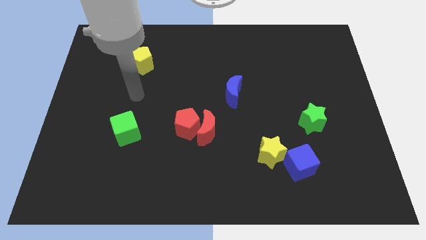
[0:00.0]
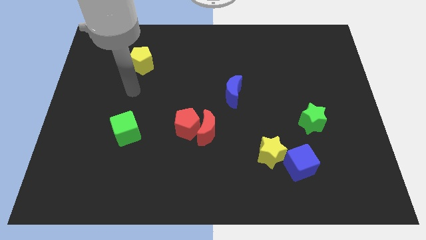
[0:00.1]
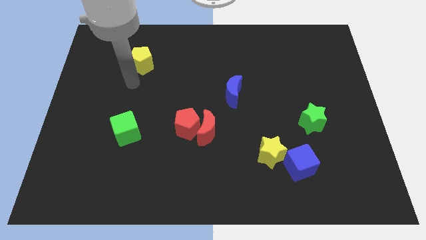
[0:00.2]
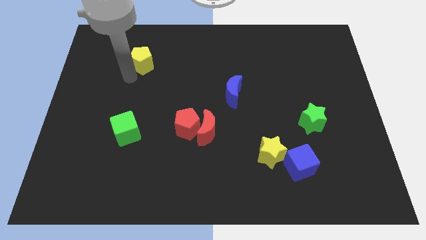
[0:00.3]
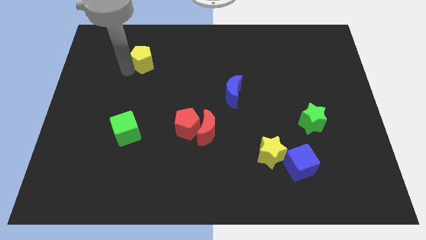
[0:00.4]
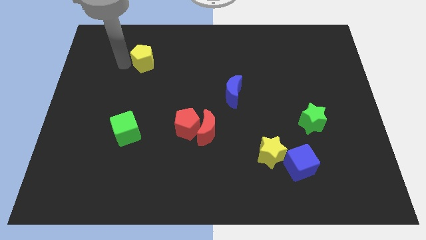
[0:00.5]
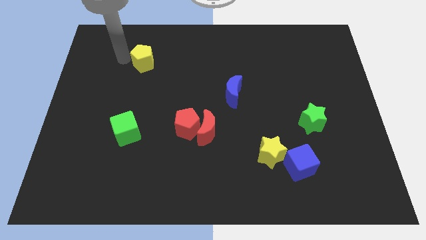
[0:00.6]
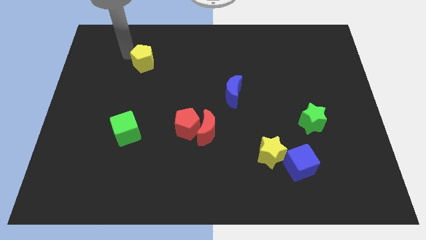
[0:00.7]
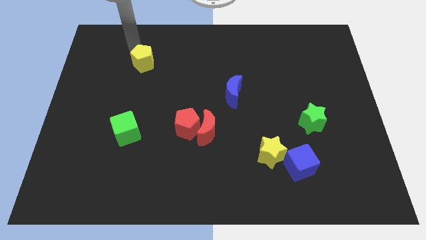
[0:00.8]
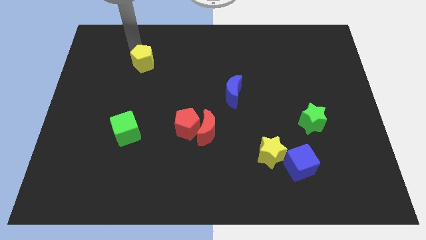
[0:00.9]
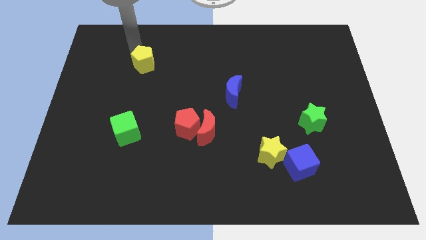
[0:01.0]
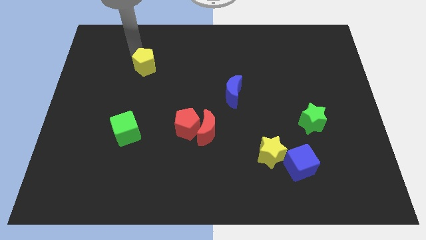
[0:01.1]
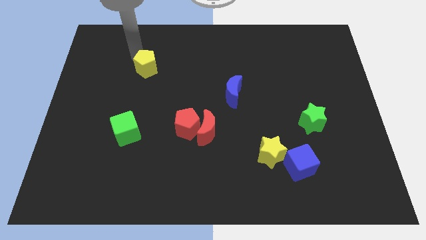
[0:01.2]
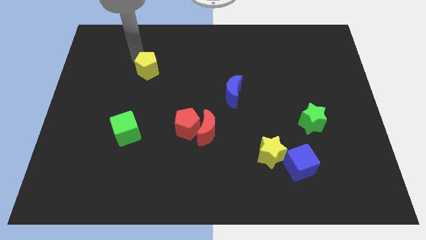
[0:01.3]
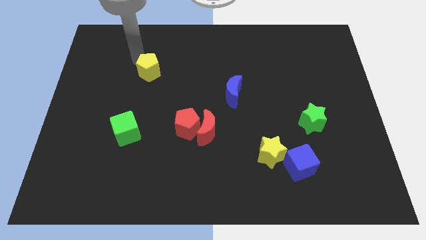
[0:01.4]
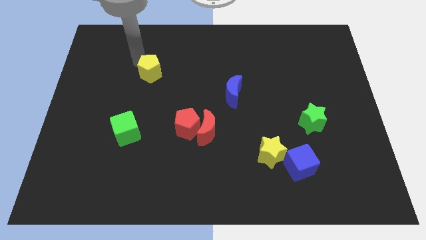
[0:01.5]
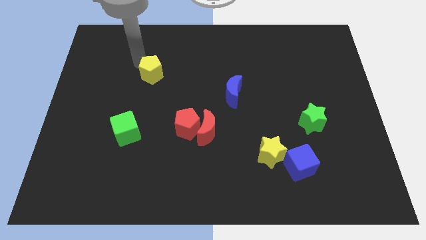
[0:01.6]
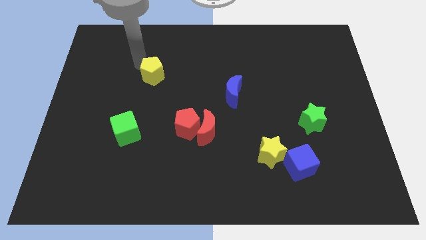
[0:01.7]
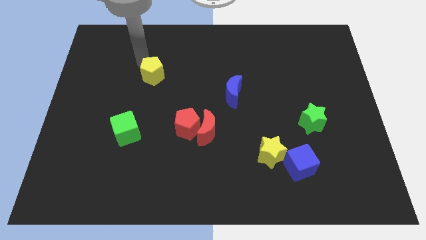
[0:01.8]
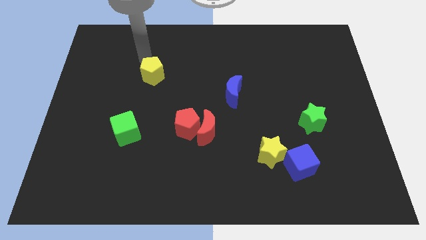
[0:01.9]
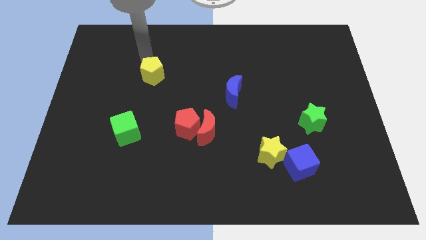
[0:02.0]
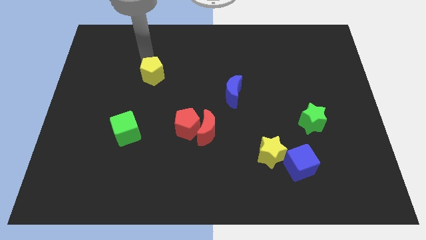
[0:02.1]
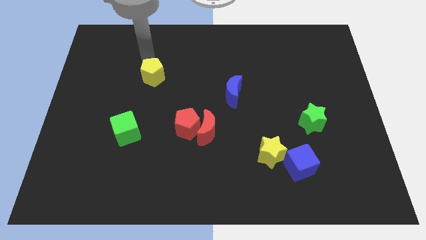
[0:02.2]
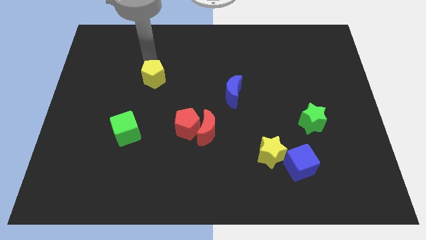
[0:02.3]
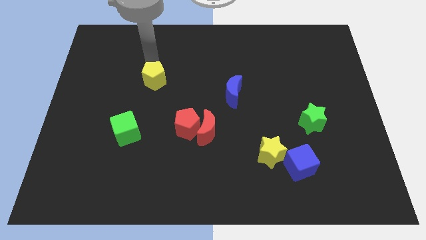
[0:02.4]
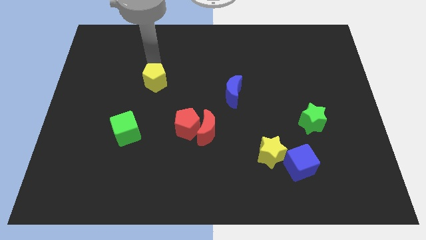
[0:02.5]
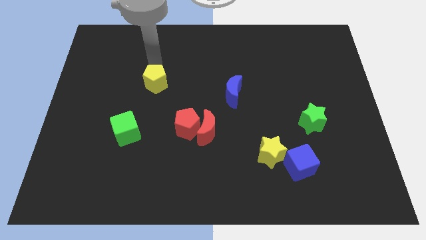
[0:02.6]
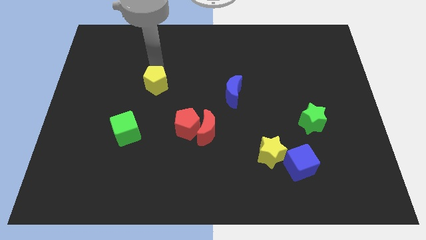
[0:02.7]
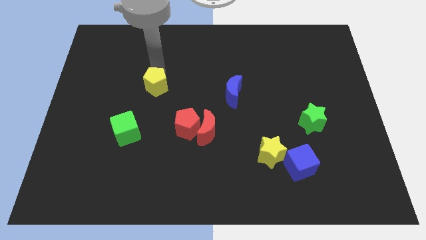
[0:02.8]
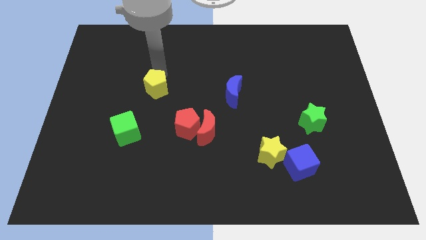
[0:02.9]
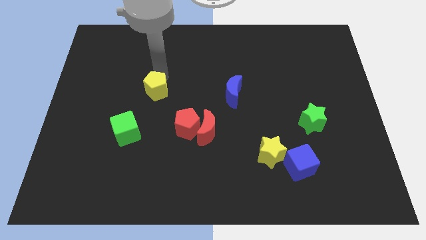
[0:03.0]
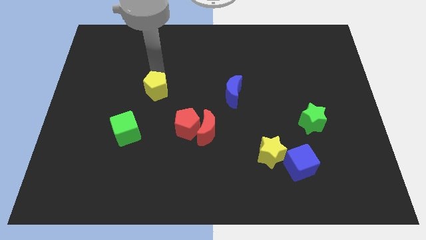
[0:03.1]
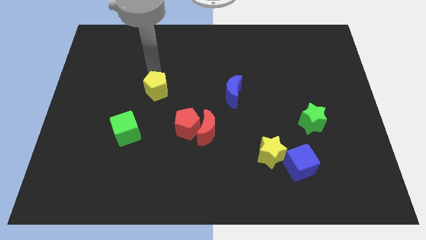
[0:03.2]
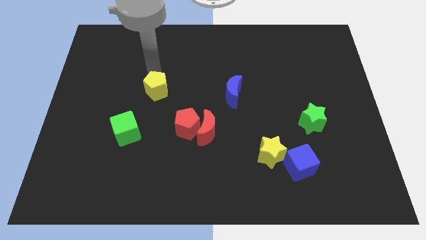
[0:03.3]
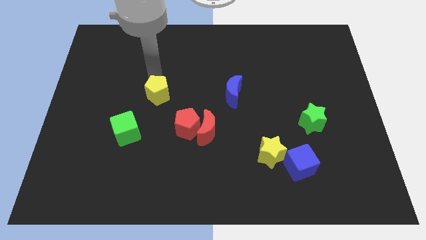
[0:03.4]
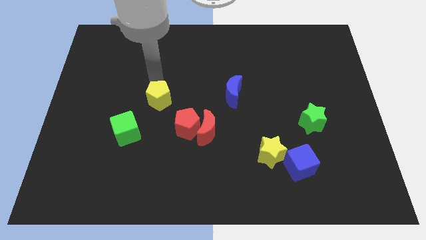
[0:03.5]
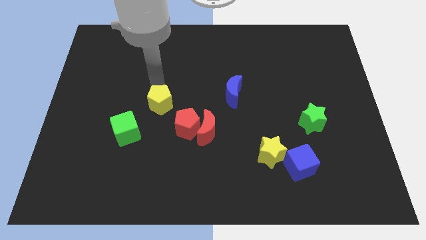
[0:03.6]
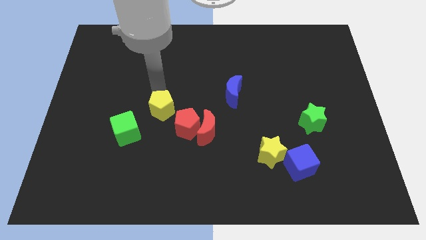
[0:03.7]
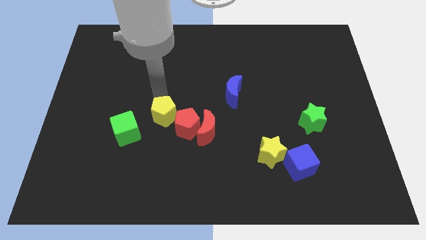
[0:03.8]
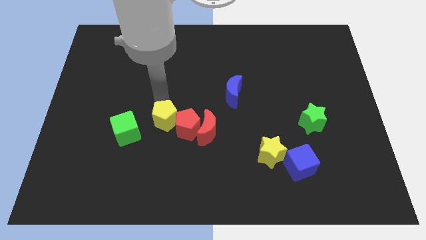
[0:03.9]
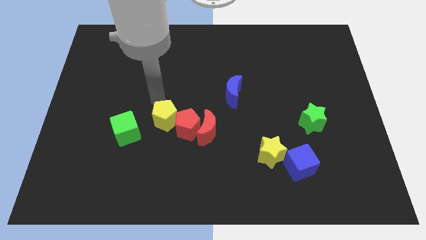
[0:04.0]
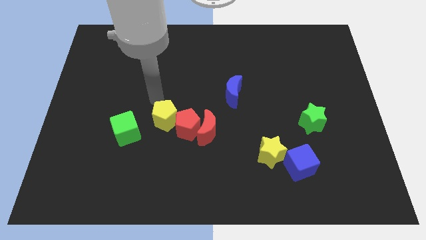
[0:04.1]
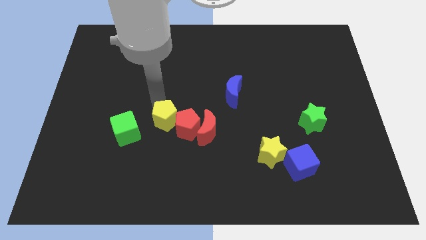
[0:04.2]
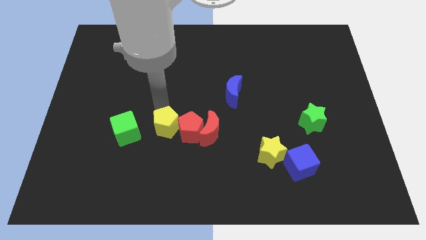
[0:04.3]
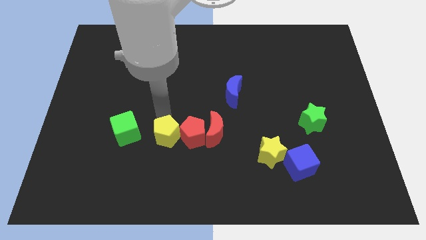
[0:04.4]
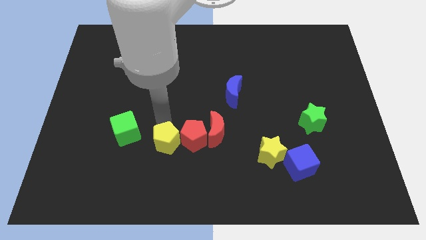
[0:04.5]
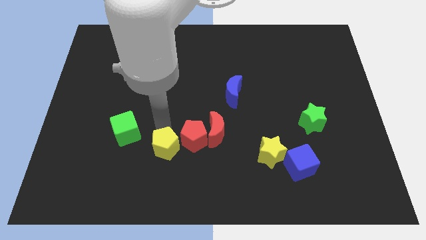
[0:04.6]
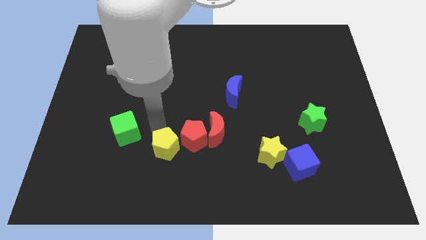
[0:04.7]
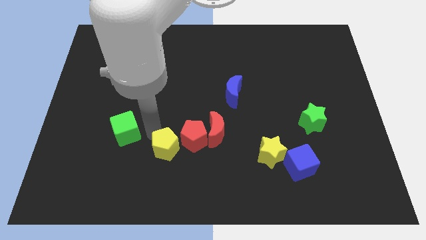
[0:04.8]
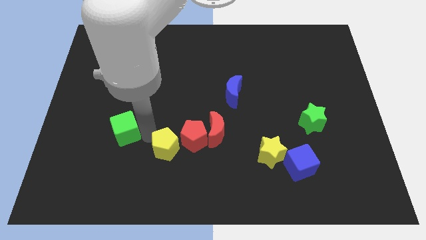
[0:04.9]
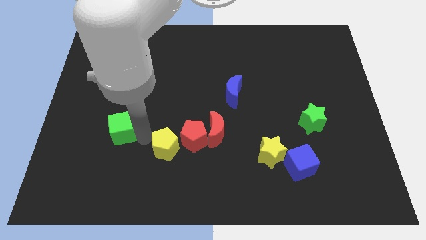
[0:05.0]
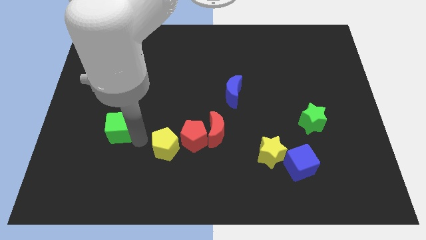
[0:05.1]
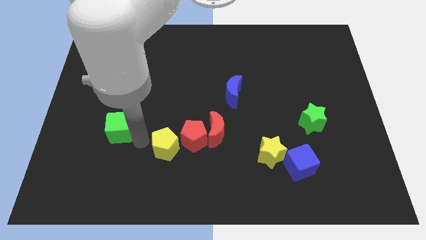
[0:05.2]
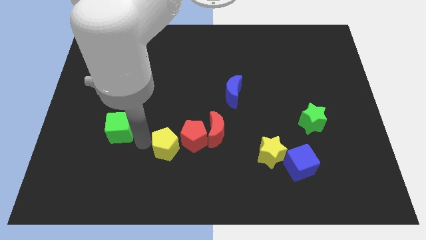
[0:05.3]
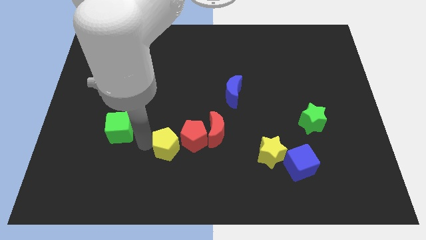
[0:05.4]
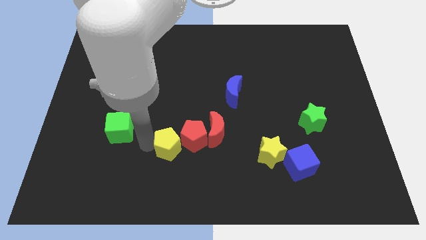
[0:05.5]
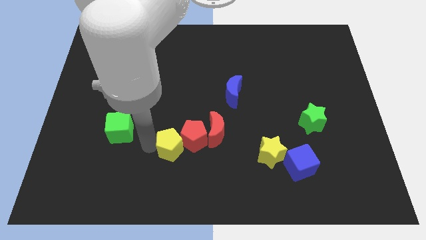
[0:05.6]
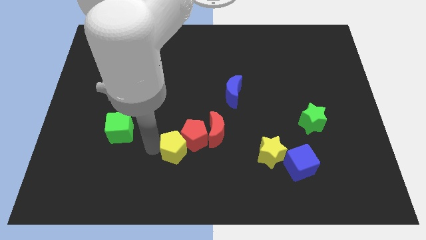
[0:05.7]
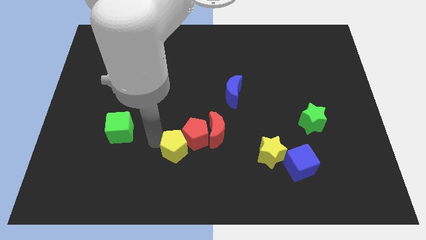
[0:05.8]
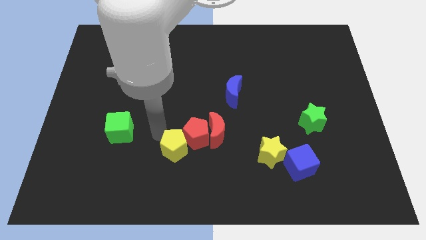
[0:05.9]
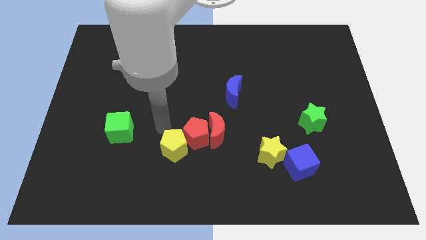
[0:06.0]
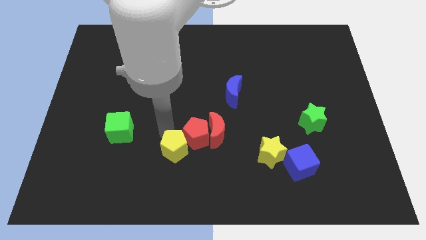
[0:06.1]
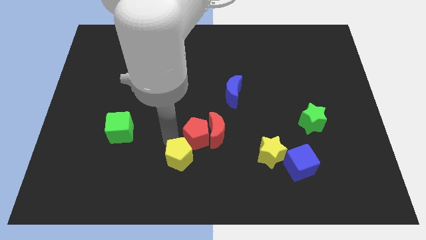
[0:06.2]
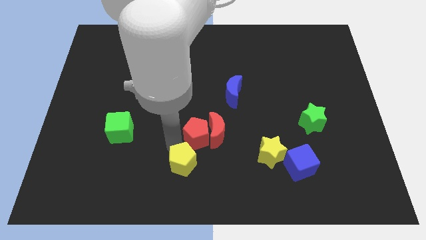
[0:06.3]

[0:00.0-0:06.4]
slide the yellow pentagon to the bottom
